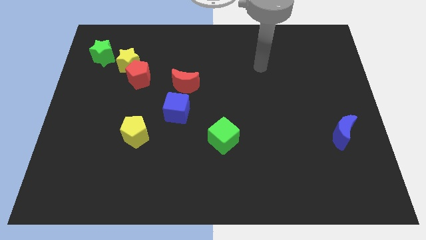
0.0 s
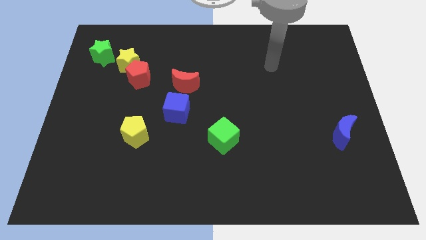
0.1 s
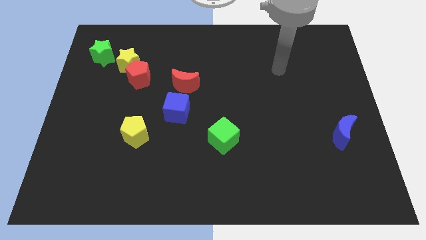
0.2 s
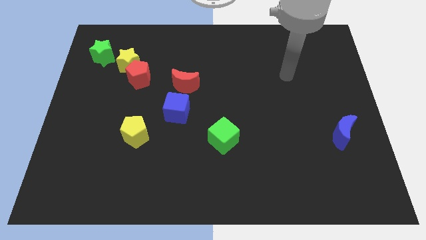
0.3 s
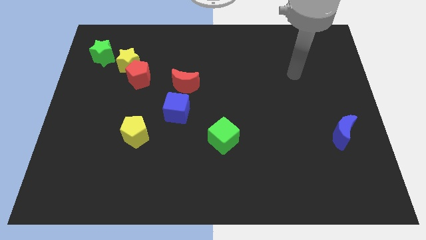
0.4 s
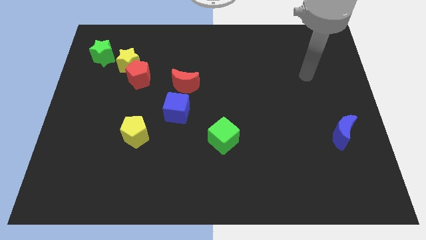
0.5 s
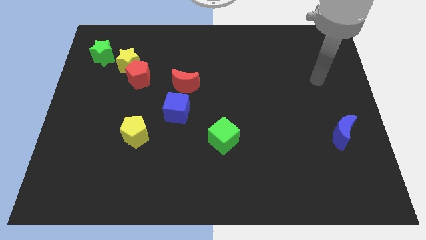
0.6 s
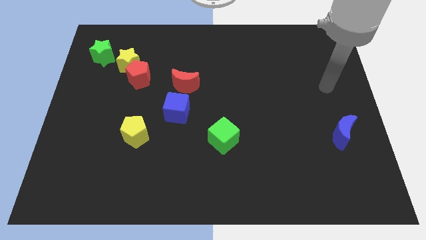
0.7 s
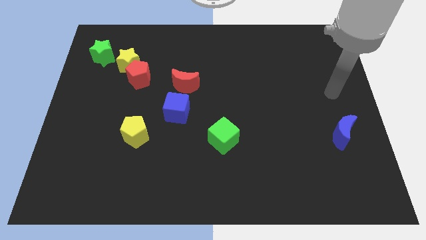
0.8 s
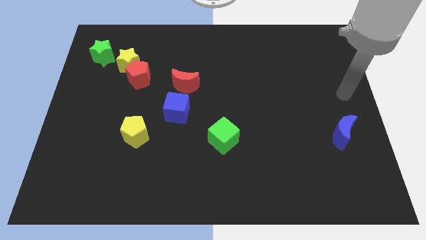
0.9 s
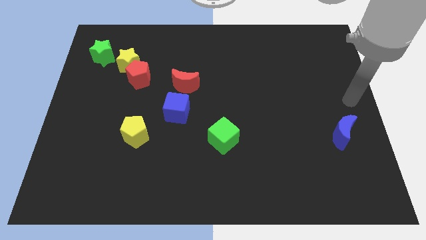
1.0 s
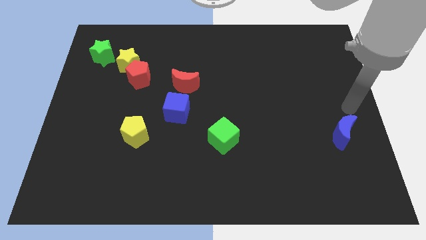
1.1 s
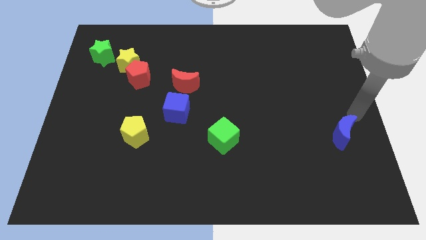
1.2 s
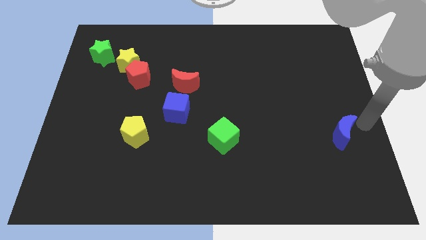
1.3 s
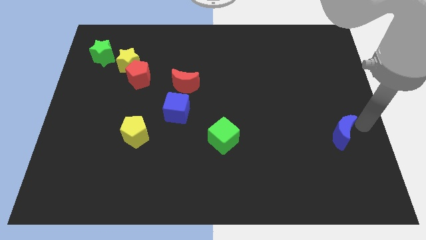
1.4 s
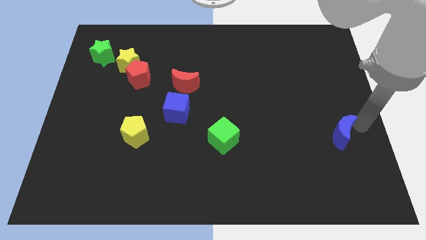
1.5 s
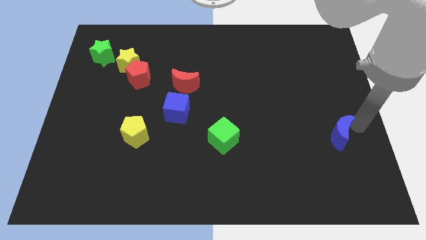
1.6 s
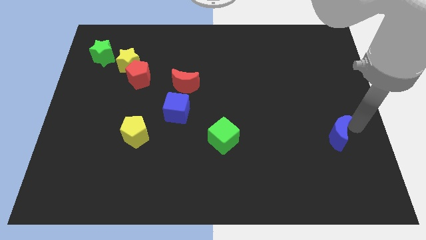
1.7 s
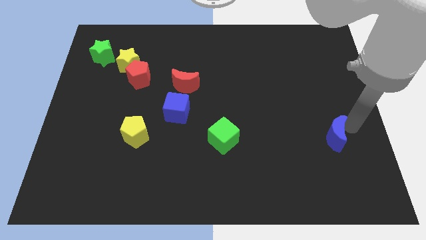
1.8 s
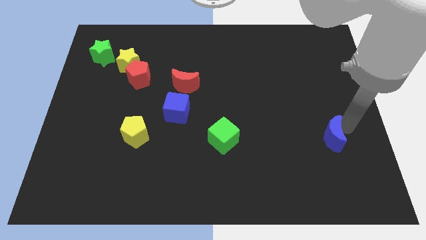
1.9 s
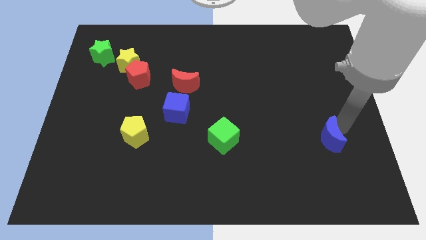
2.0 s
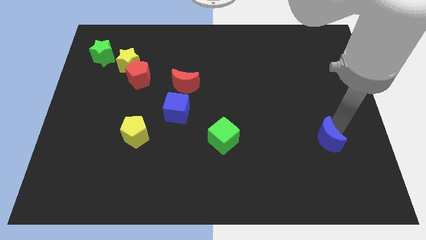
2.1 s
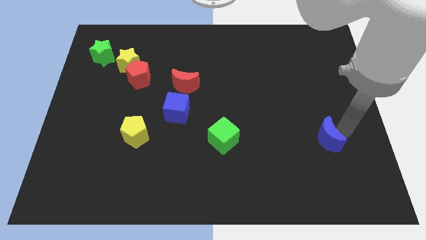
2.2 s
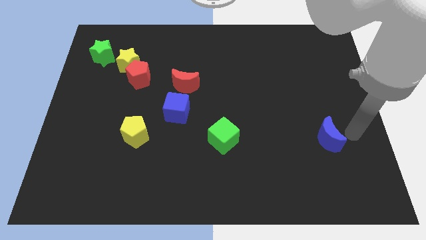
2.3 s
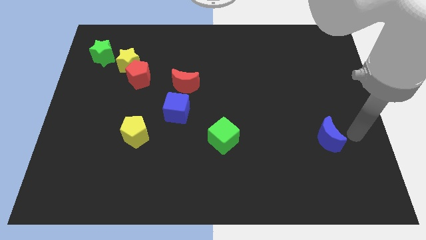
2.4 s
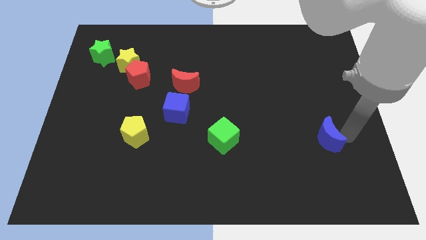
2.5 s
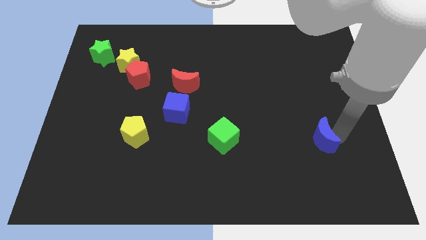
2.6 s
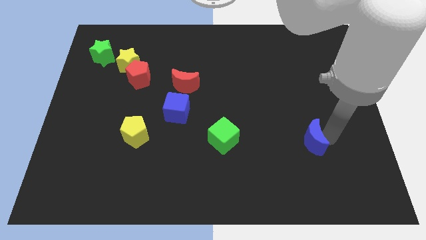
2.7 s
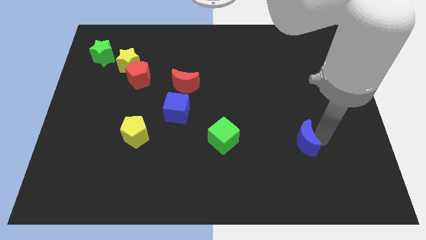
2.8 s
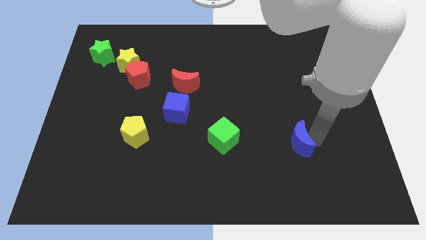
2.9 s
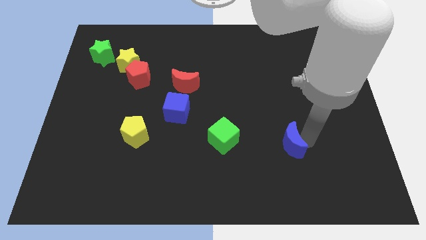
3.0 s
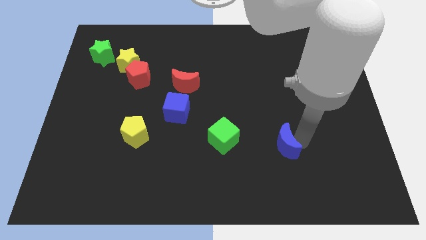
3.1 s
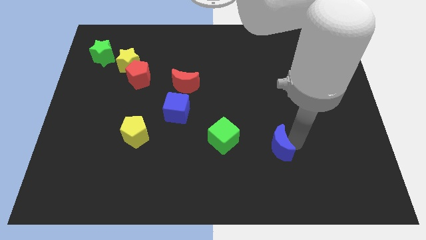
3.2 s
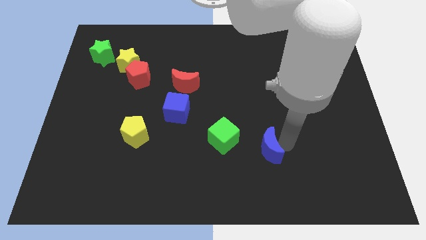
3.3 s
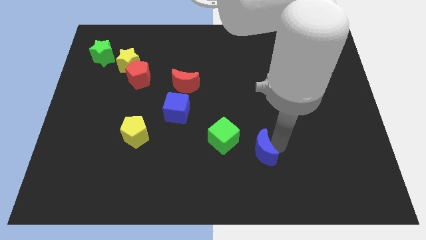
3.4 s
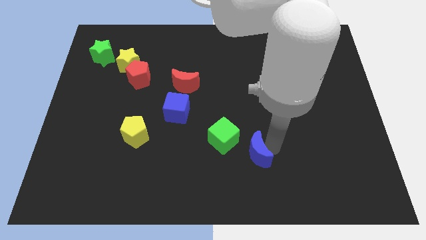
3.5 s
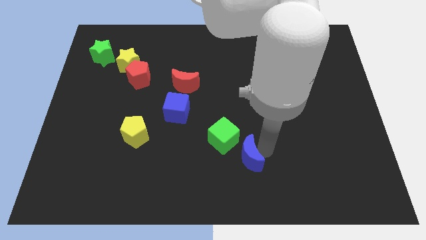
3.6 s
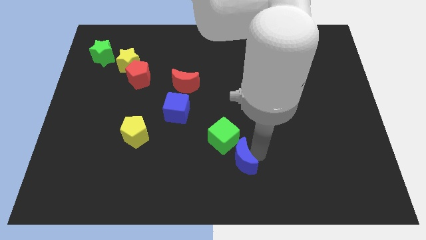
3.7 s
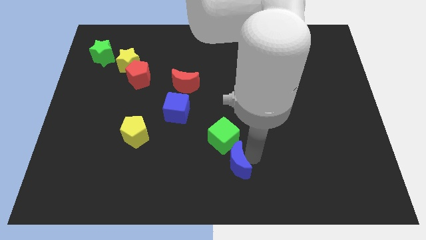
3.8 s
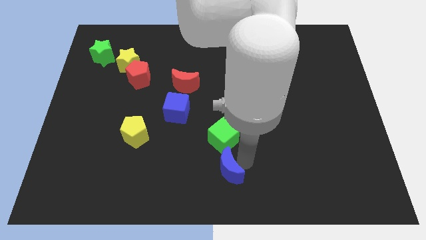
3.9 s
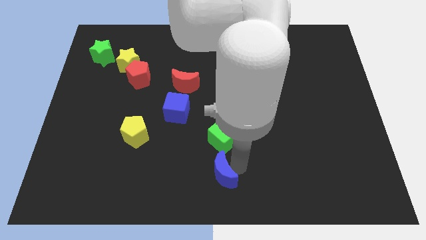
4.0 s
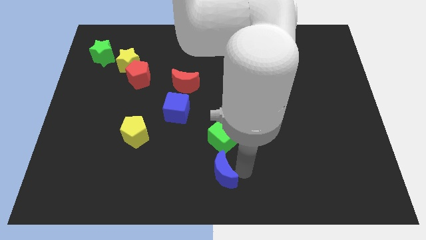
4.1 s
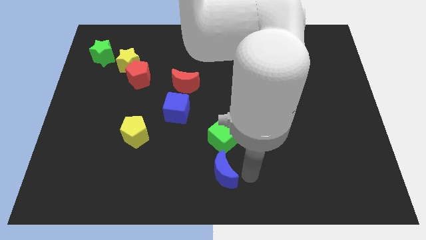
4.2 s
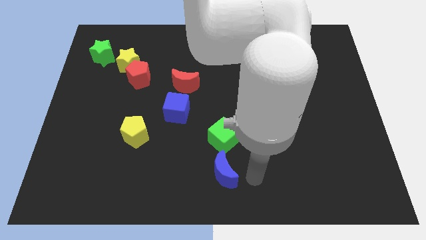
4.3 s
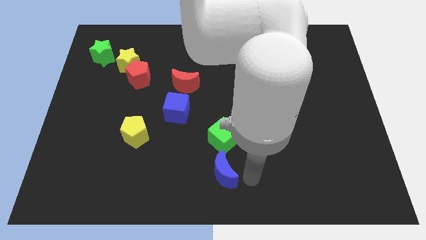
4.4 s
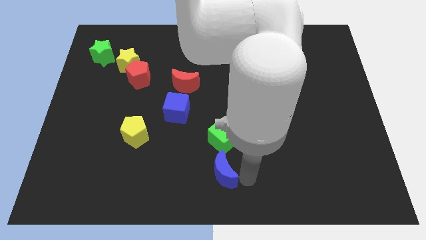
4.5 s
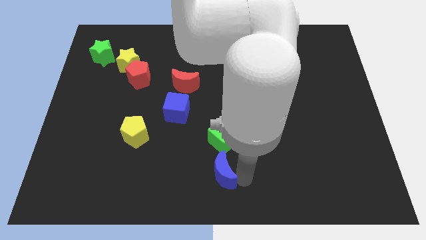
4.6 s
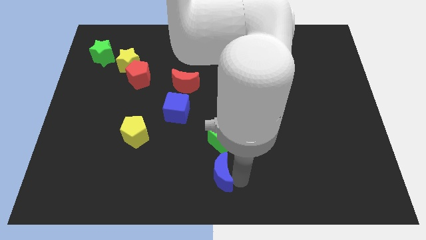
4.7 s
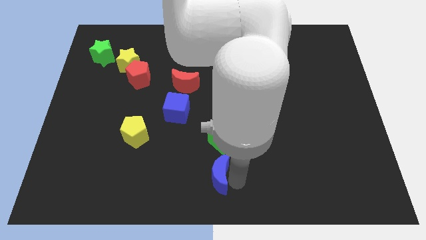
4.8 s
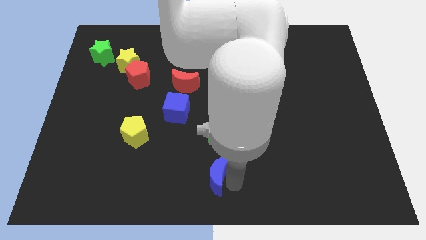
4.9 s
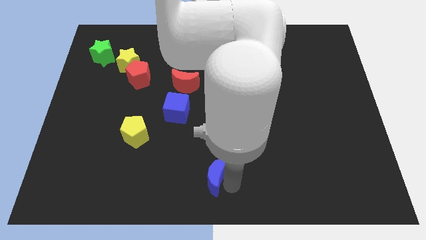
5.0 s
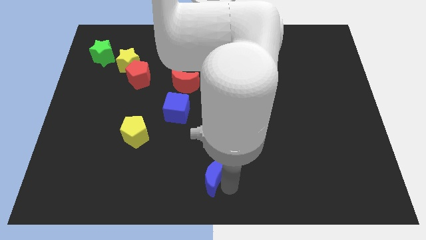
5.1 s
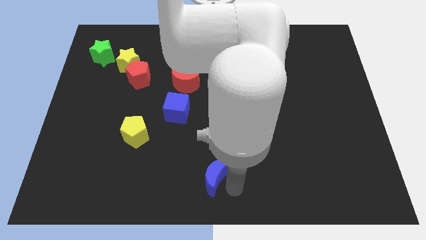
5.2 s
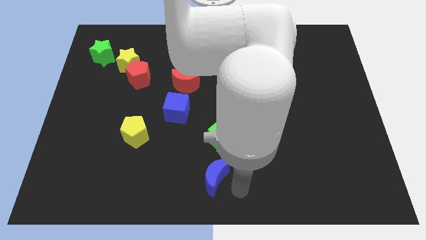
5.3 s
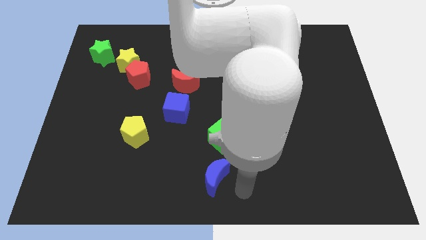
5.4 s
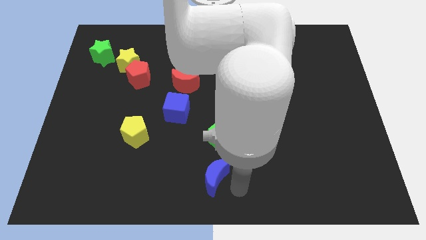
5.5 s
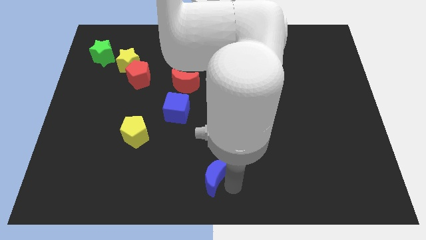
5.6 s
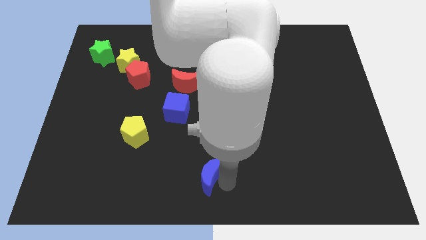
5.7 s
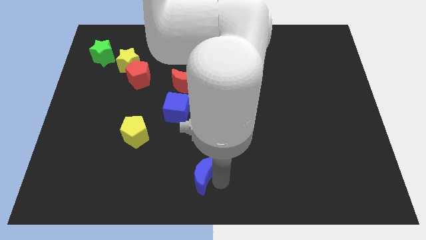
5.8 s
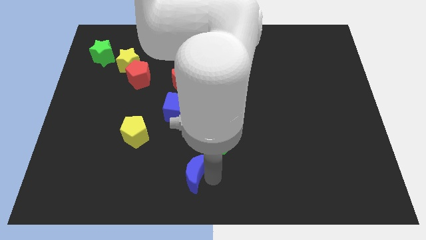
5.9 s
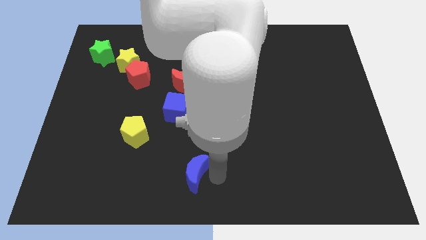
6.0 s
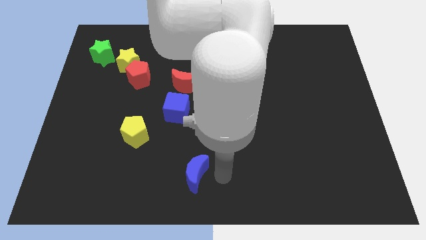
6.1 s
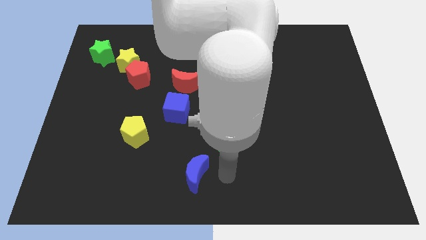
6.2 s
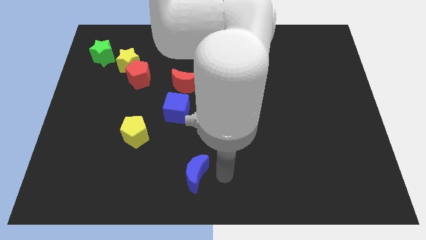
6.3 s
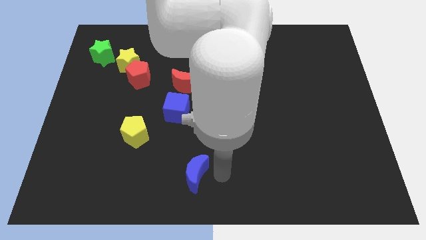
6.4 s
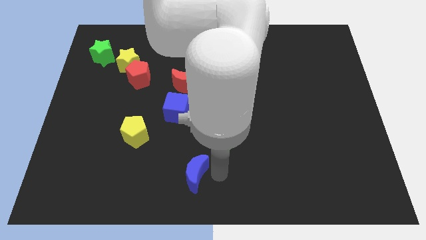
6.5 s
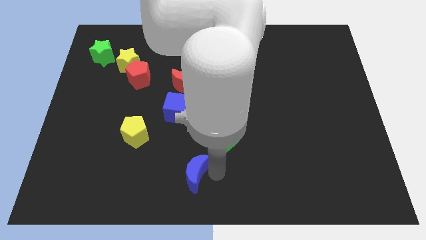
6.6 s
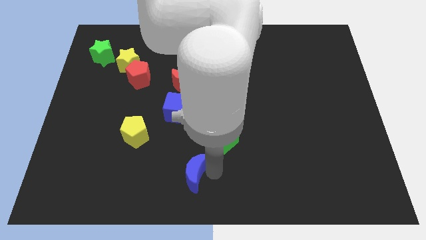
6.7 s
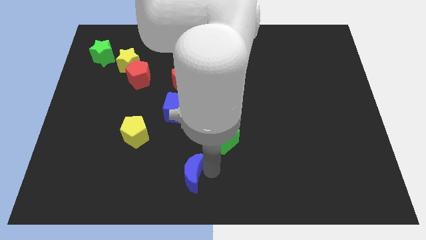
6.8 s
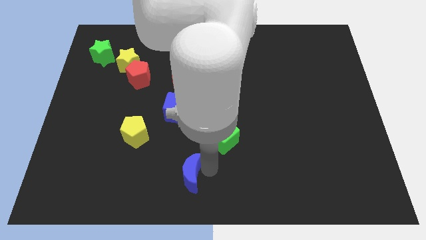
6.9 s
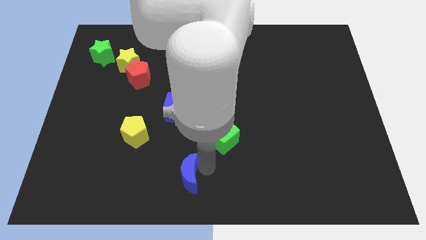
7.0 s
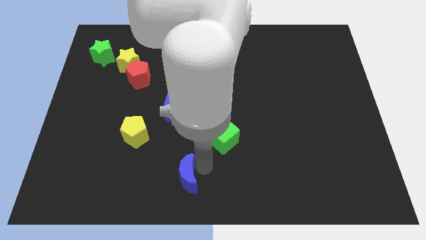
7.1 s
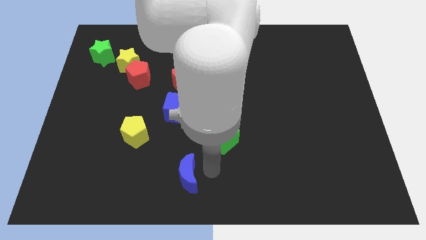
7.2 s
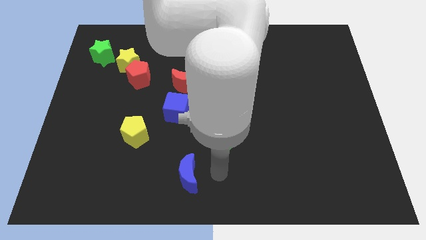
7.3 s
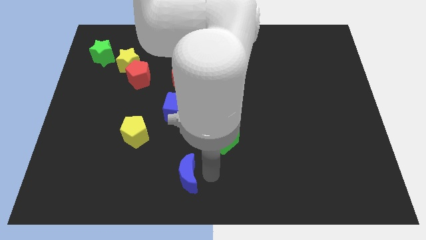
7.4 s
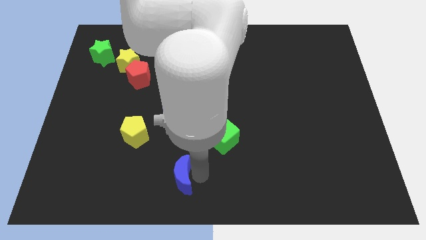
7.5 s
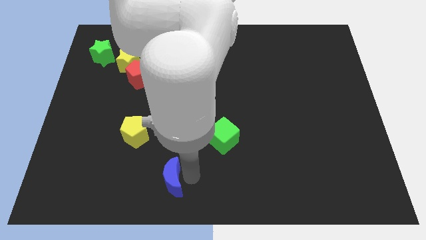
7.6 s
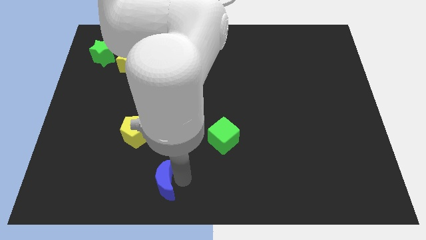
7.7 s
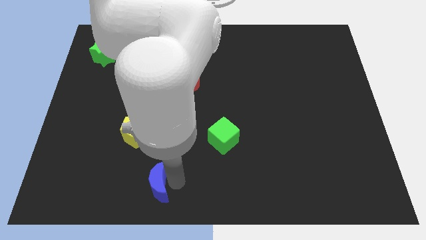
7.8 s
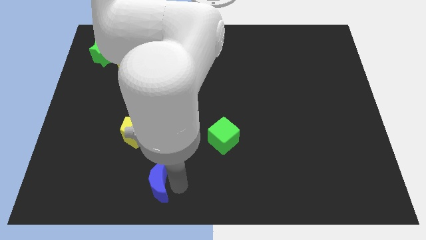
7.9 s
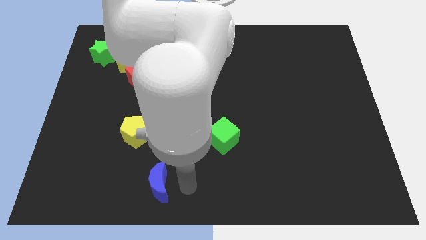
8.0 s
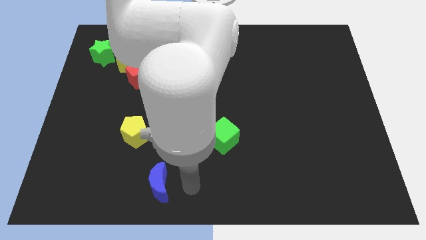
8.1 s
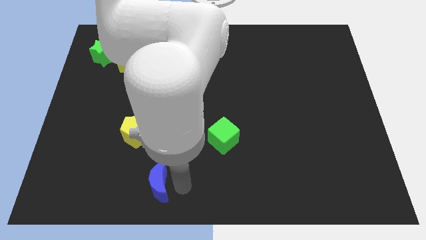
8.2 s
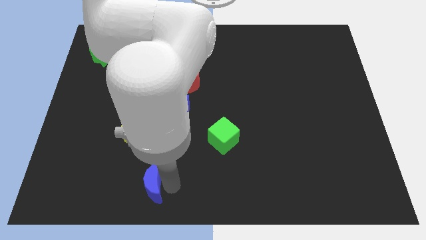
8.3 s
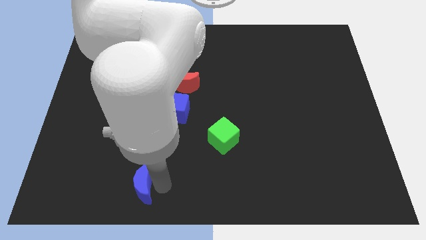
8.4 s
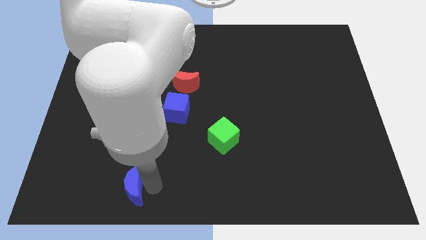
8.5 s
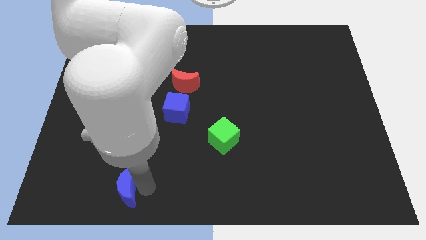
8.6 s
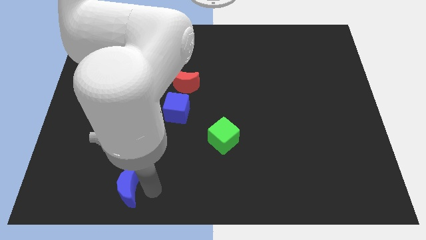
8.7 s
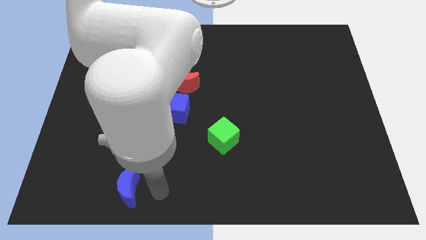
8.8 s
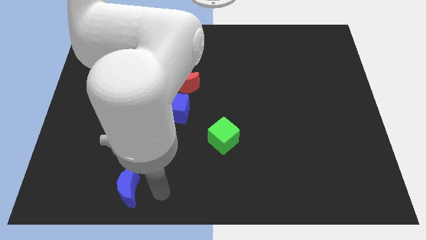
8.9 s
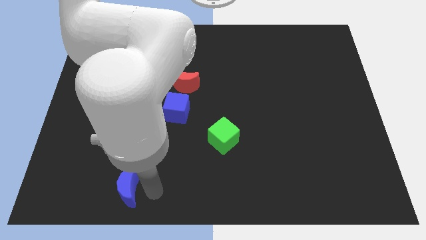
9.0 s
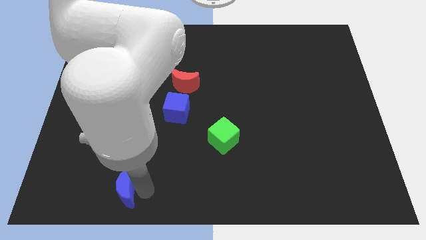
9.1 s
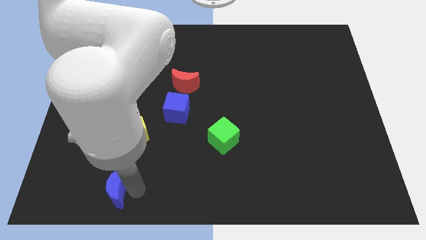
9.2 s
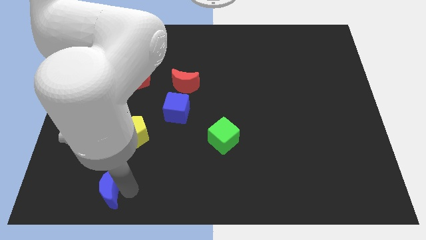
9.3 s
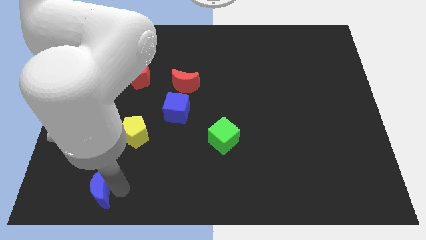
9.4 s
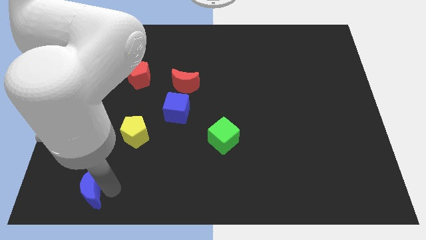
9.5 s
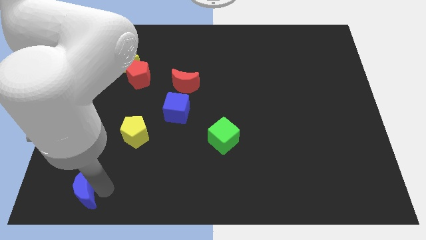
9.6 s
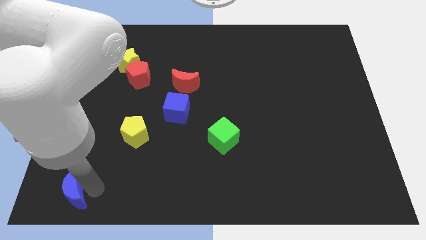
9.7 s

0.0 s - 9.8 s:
slide the blue moon to the bottom left
